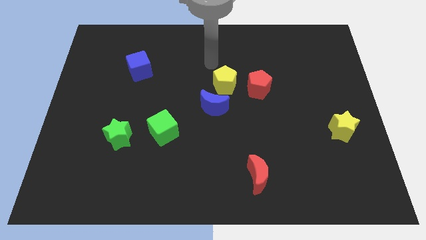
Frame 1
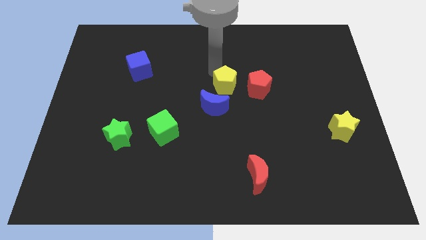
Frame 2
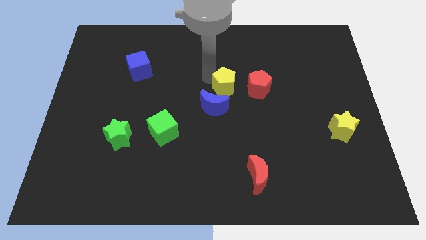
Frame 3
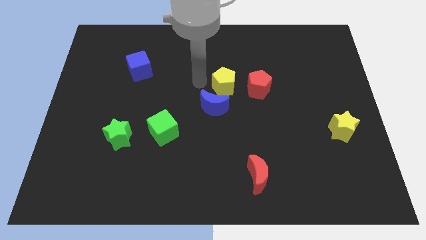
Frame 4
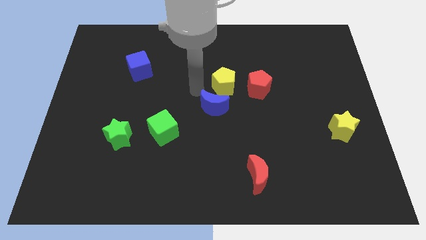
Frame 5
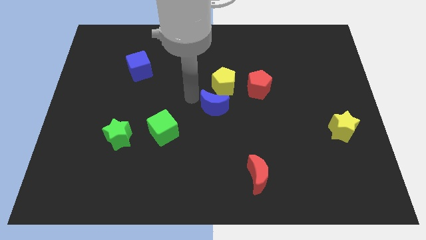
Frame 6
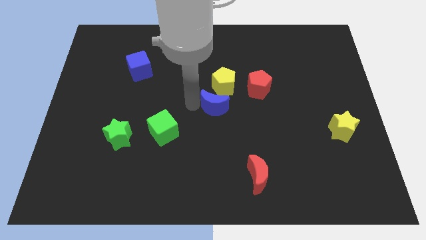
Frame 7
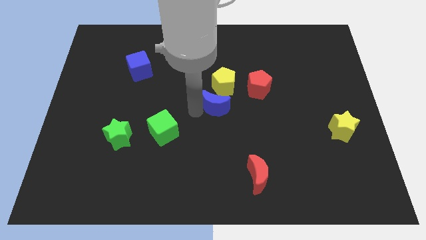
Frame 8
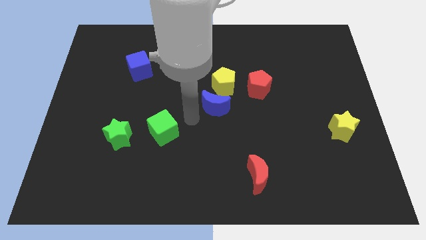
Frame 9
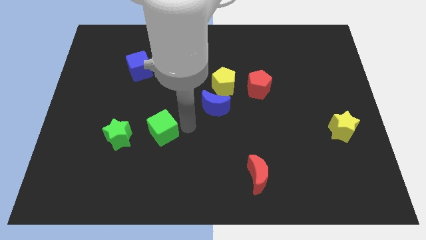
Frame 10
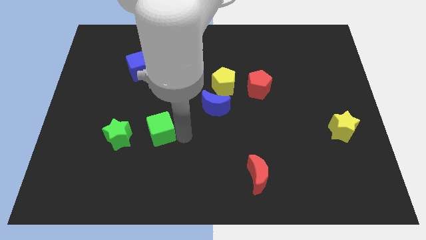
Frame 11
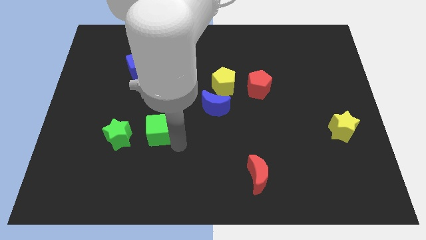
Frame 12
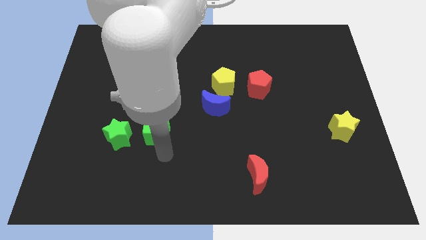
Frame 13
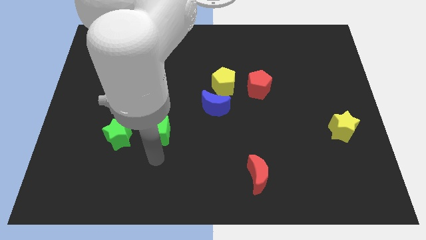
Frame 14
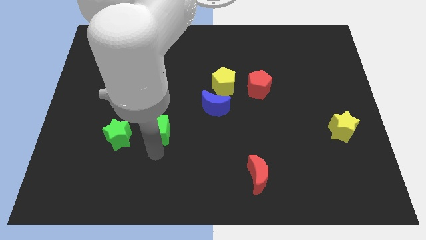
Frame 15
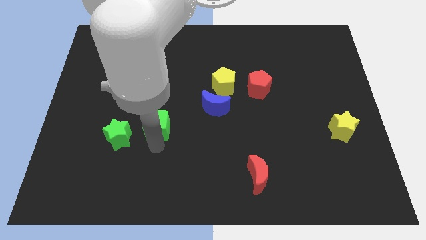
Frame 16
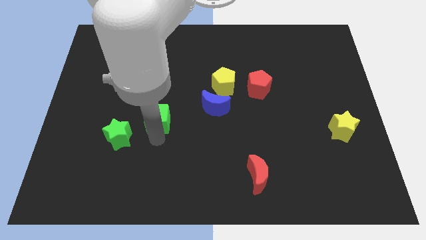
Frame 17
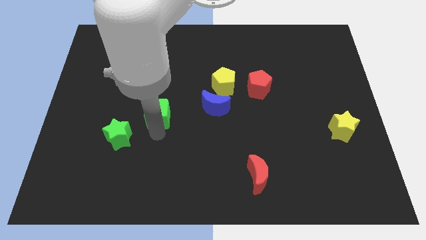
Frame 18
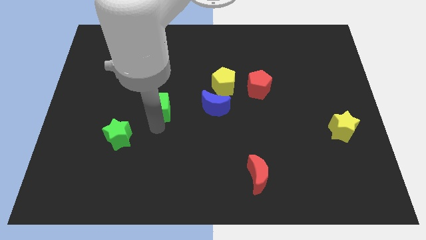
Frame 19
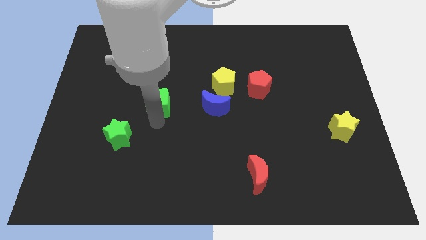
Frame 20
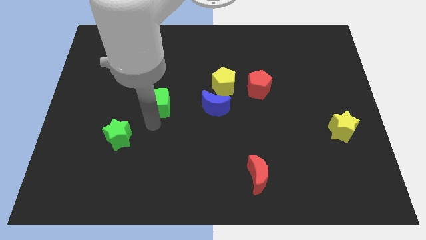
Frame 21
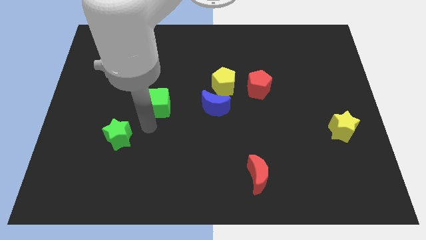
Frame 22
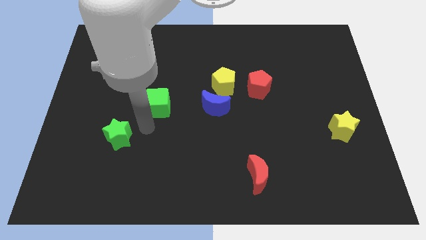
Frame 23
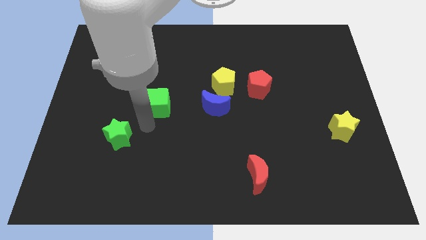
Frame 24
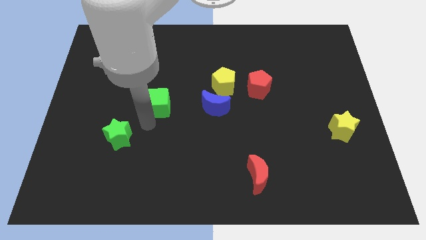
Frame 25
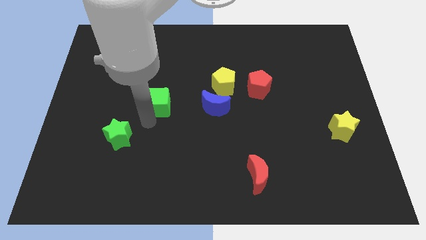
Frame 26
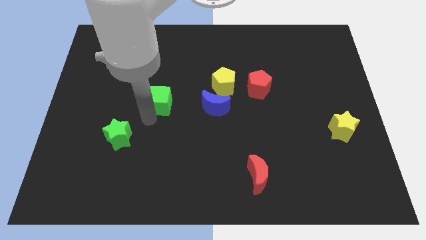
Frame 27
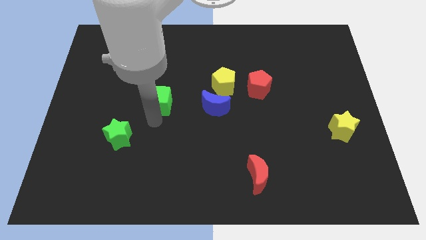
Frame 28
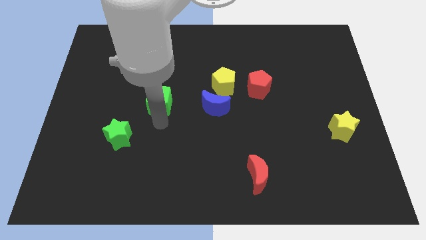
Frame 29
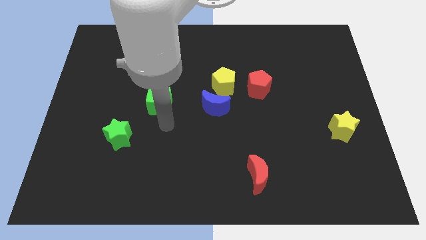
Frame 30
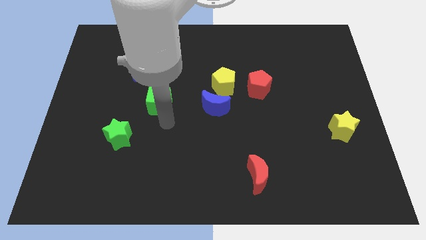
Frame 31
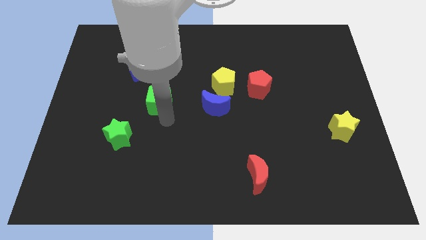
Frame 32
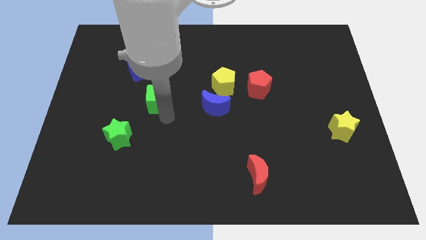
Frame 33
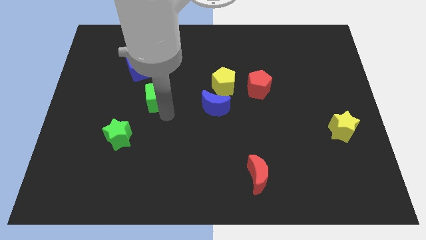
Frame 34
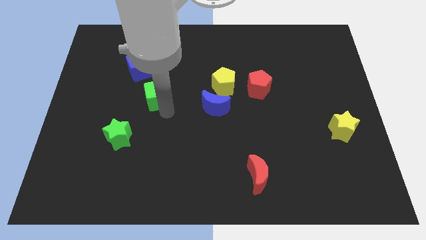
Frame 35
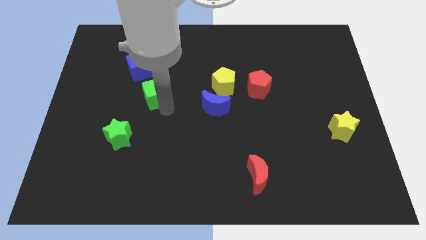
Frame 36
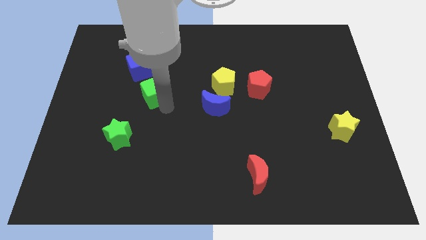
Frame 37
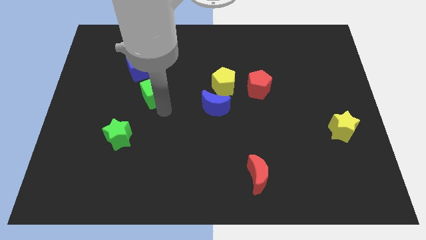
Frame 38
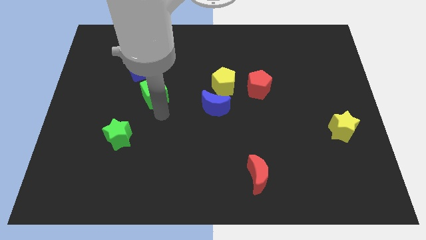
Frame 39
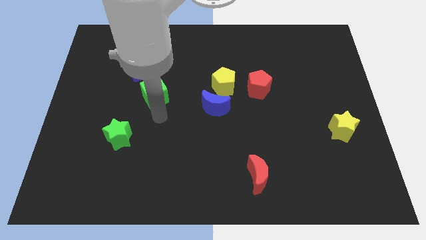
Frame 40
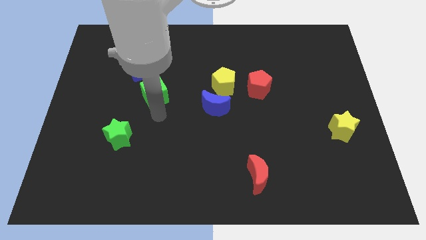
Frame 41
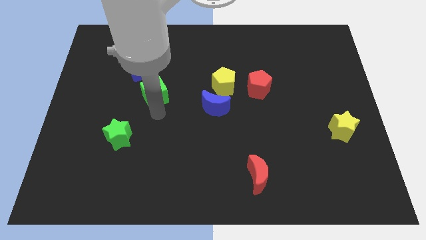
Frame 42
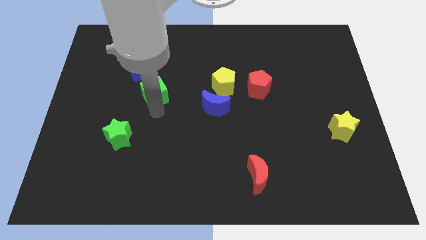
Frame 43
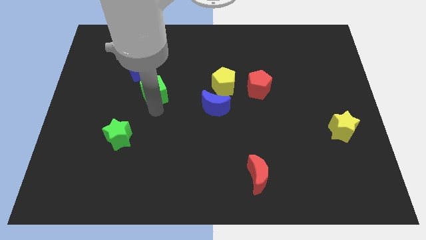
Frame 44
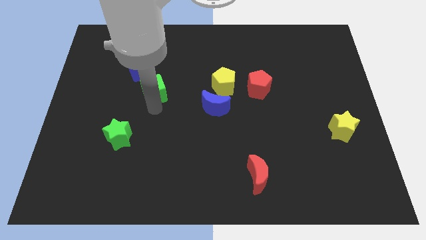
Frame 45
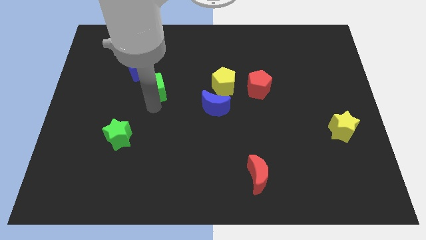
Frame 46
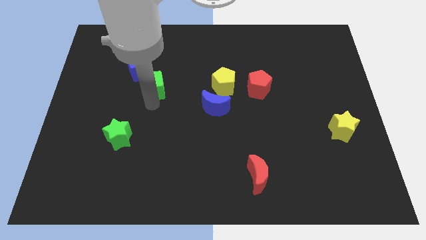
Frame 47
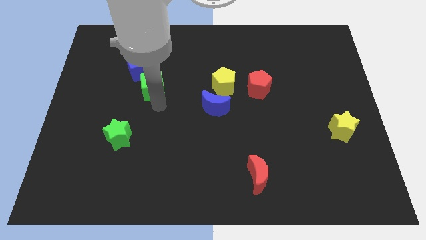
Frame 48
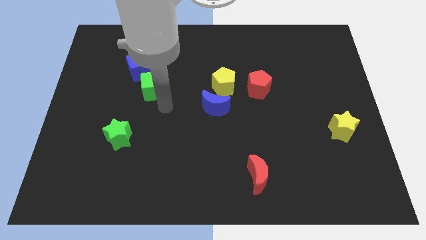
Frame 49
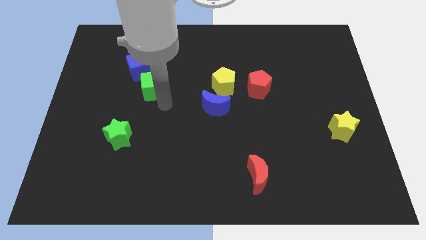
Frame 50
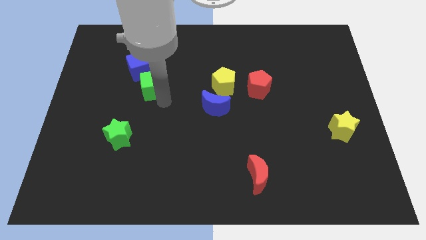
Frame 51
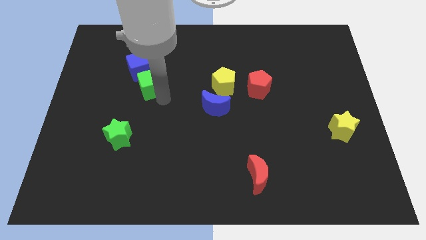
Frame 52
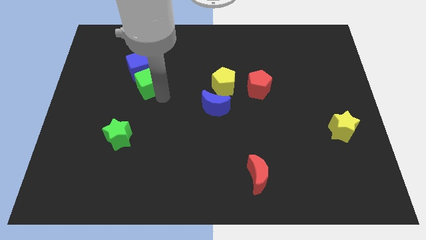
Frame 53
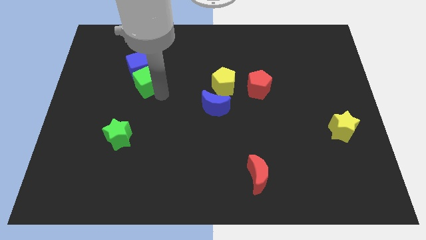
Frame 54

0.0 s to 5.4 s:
put the green cube close to the blue cube

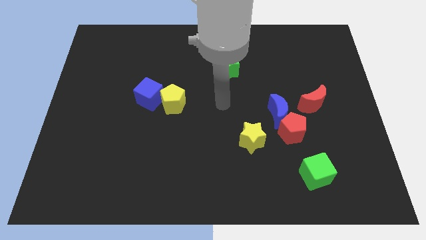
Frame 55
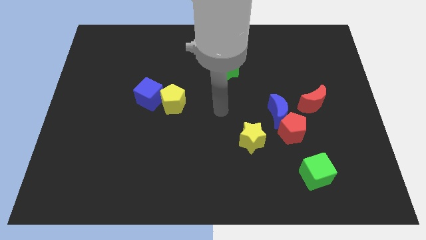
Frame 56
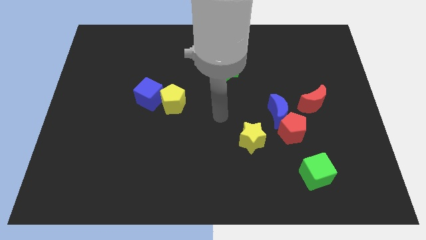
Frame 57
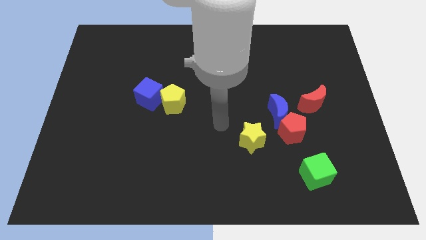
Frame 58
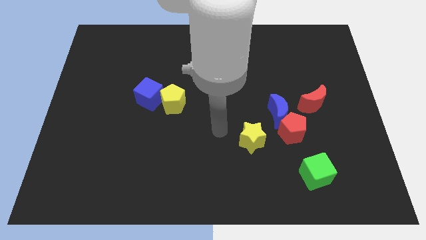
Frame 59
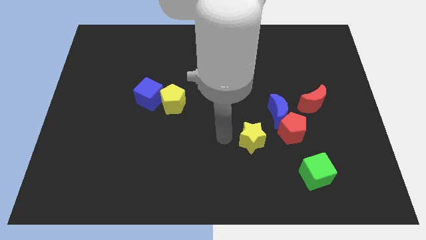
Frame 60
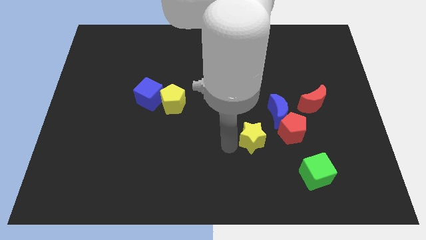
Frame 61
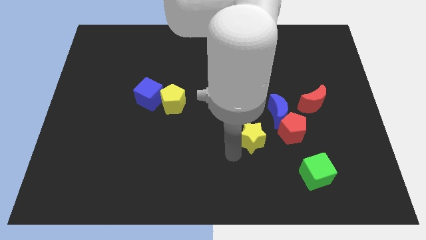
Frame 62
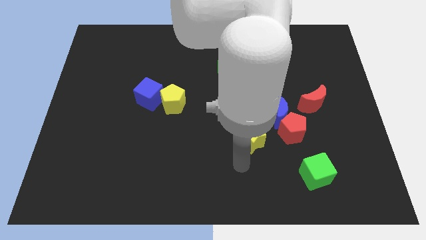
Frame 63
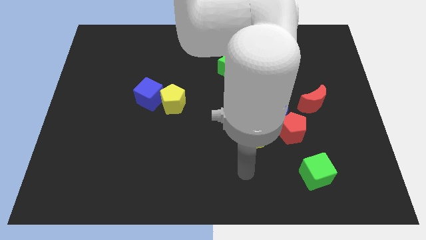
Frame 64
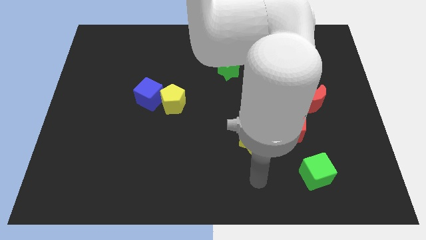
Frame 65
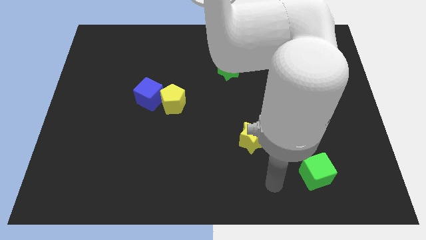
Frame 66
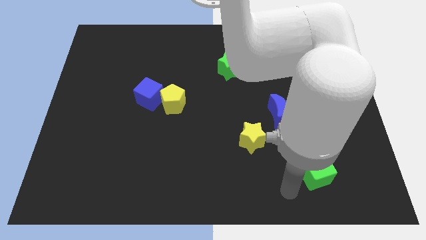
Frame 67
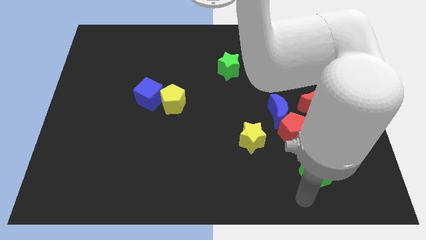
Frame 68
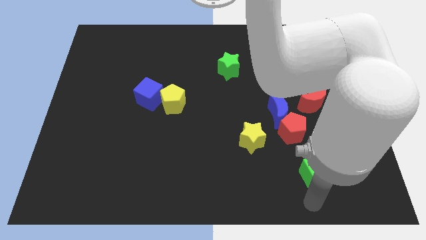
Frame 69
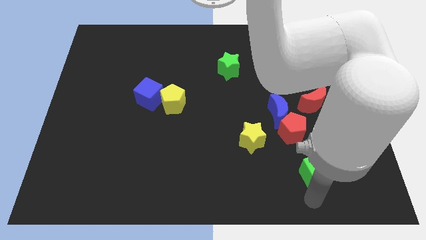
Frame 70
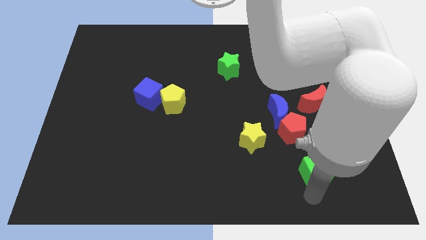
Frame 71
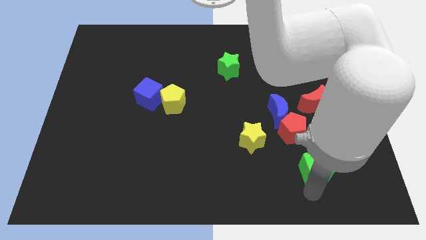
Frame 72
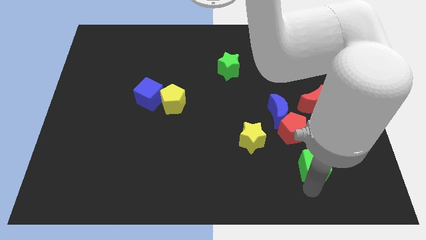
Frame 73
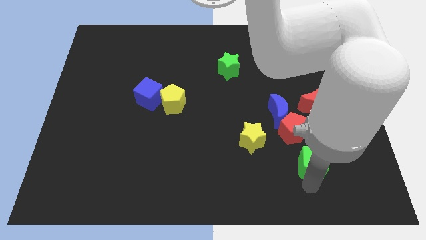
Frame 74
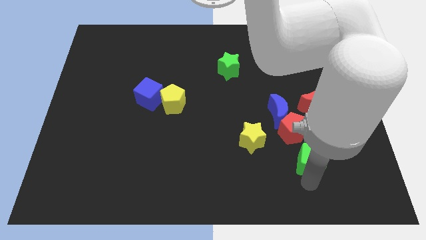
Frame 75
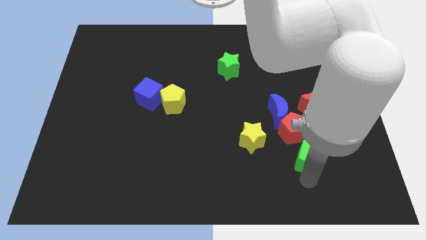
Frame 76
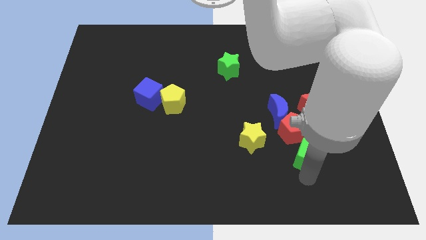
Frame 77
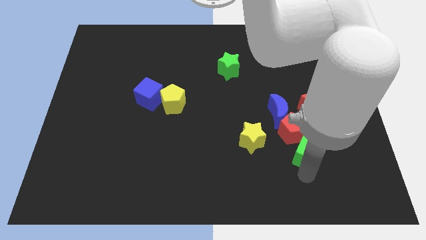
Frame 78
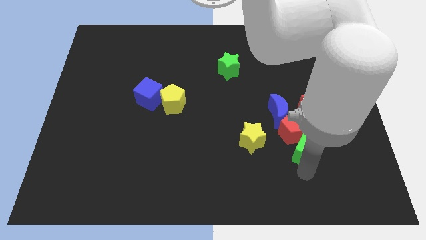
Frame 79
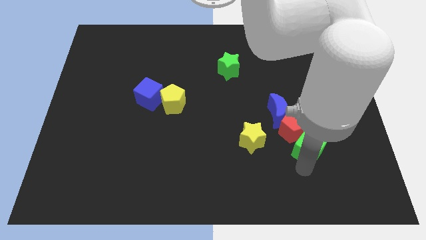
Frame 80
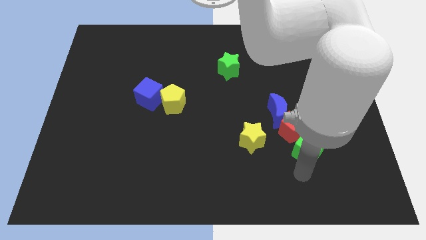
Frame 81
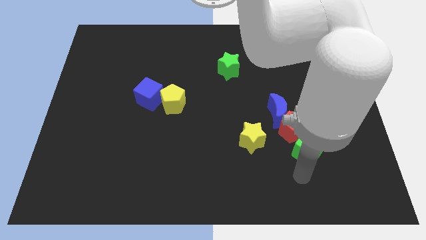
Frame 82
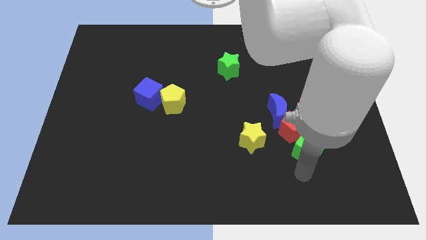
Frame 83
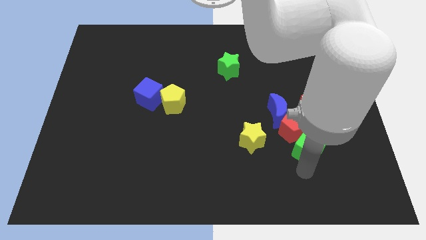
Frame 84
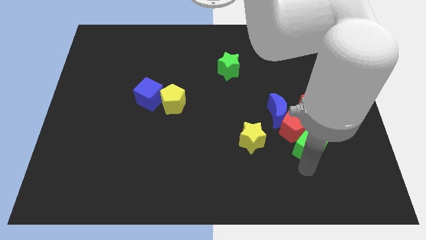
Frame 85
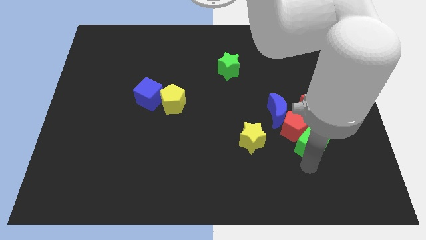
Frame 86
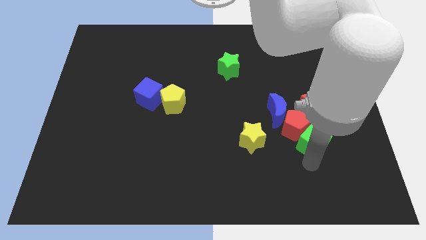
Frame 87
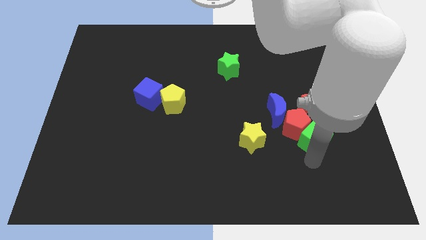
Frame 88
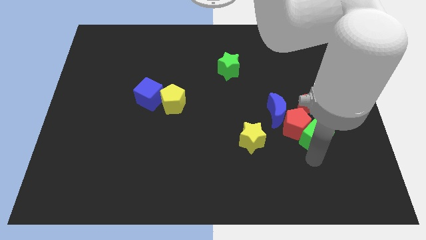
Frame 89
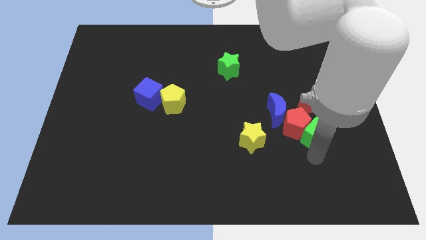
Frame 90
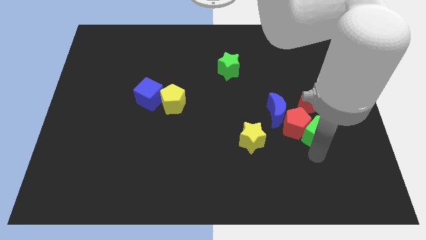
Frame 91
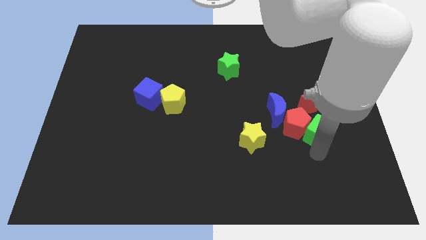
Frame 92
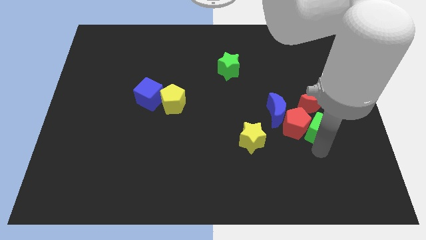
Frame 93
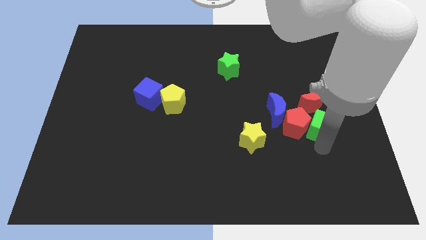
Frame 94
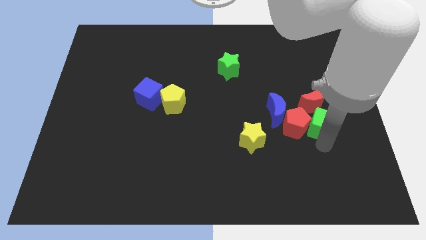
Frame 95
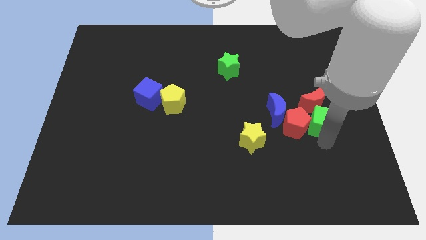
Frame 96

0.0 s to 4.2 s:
slide the green cube towards the red moon
